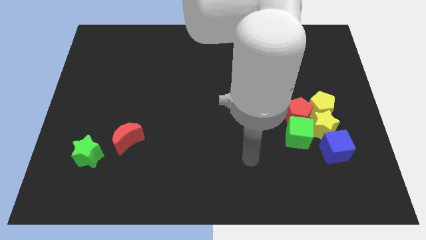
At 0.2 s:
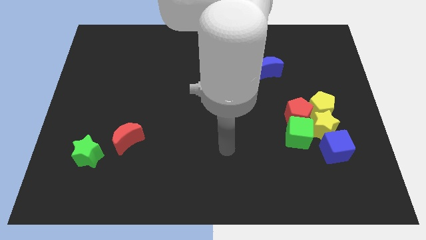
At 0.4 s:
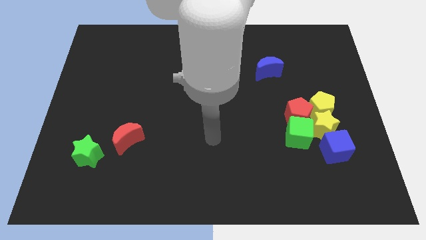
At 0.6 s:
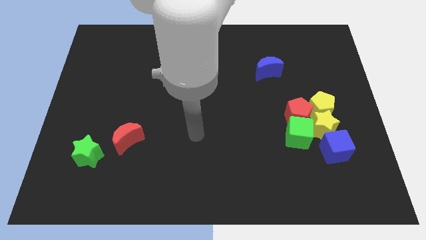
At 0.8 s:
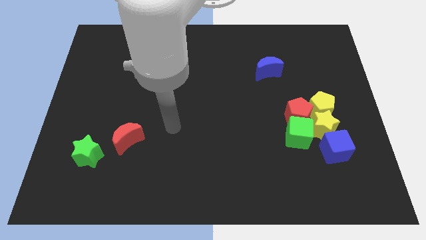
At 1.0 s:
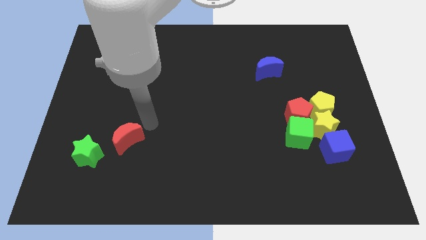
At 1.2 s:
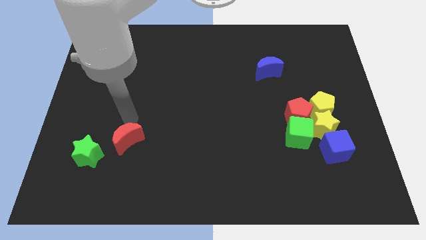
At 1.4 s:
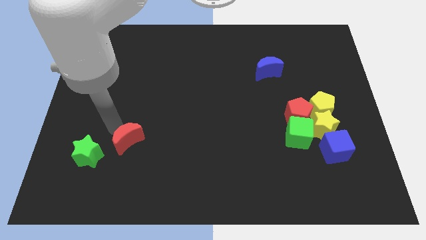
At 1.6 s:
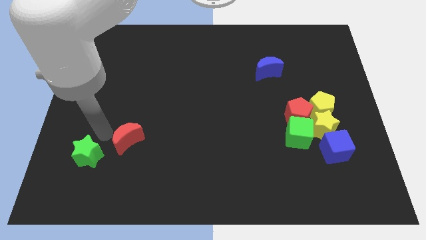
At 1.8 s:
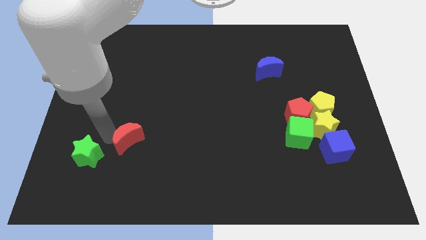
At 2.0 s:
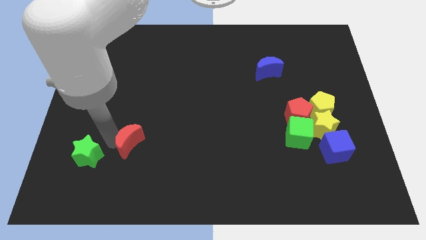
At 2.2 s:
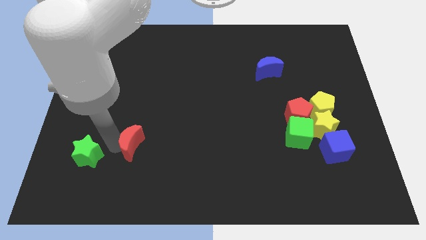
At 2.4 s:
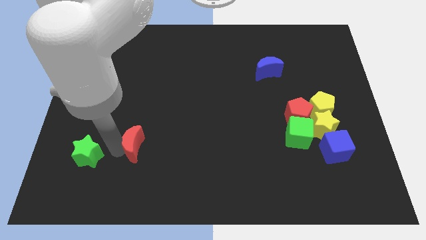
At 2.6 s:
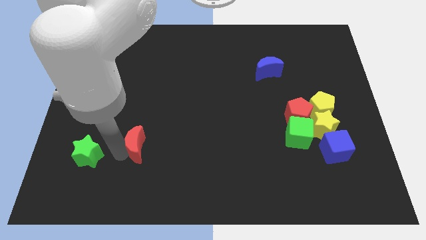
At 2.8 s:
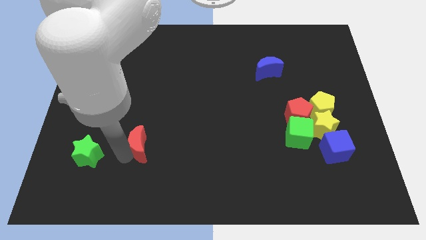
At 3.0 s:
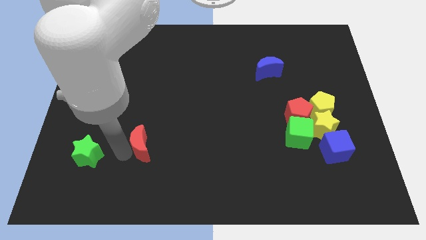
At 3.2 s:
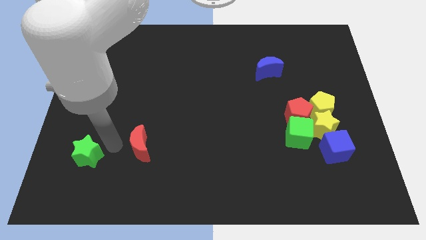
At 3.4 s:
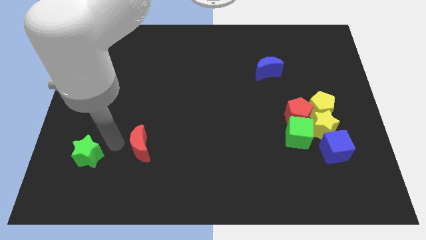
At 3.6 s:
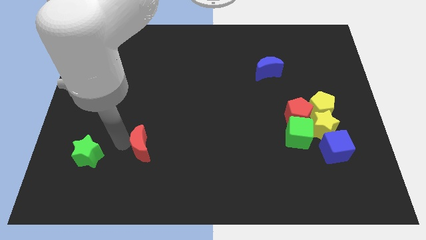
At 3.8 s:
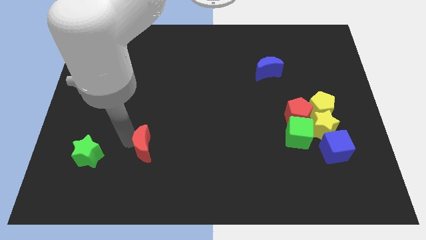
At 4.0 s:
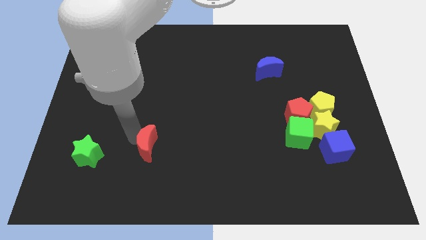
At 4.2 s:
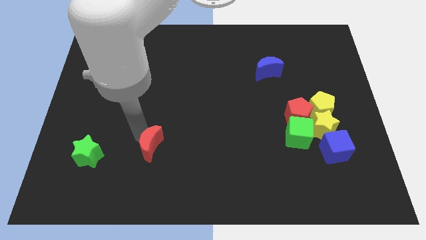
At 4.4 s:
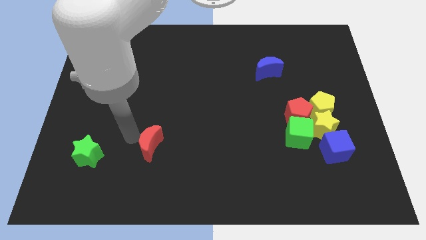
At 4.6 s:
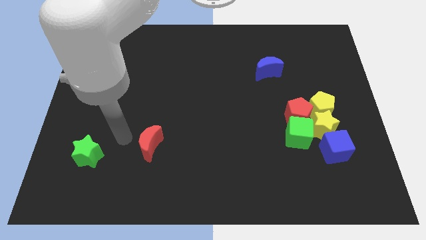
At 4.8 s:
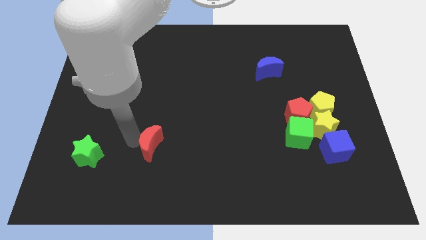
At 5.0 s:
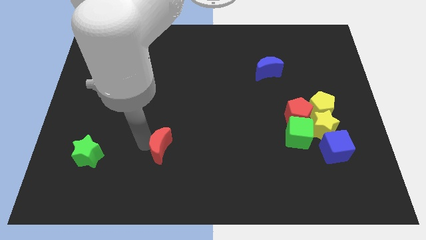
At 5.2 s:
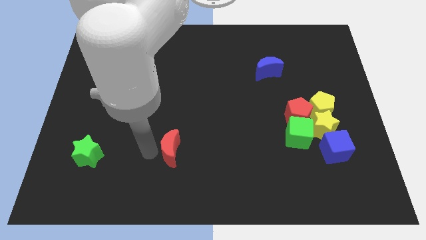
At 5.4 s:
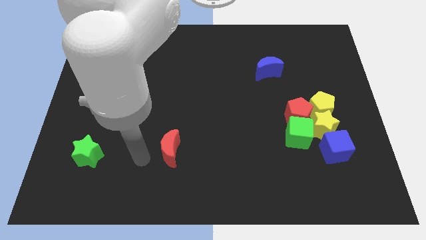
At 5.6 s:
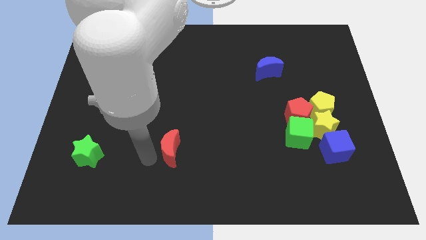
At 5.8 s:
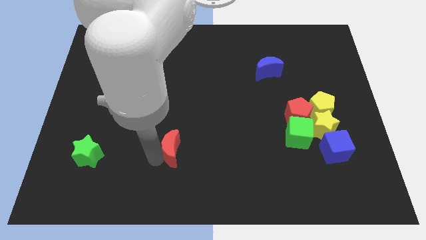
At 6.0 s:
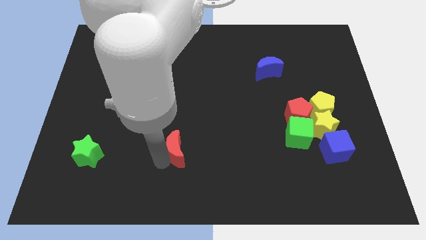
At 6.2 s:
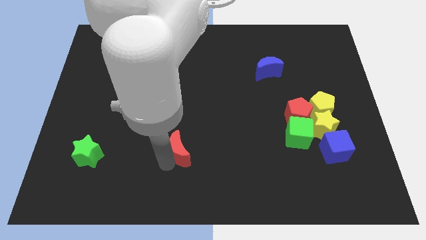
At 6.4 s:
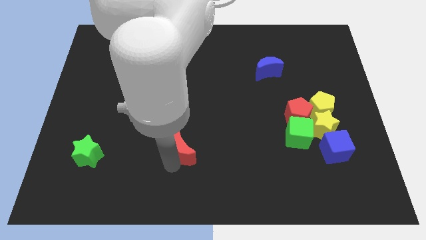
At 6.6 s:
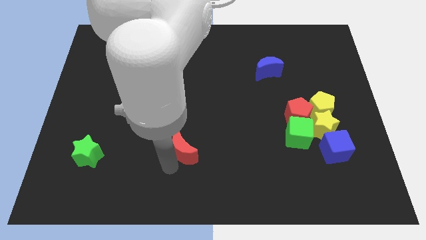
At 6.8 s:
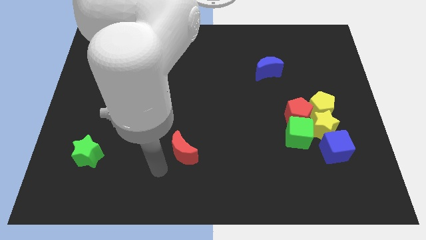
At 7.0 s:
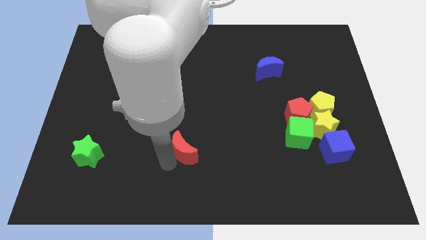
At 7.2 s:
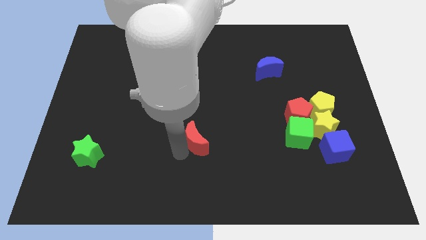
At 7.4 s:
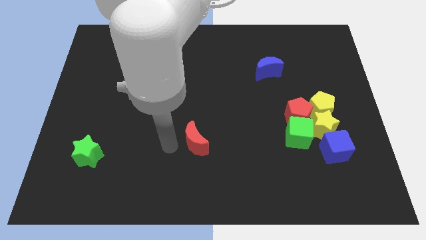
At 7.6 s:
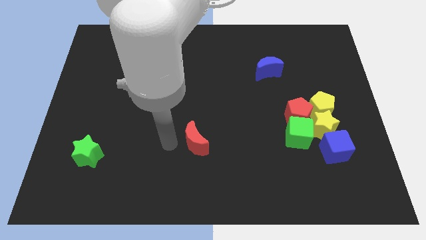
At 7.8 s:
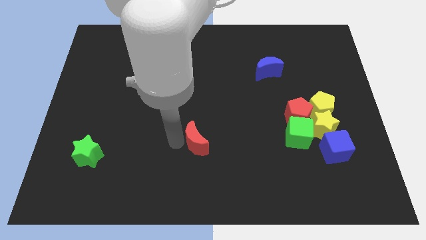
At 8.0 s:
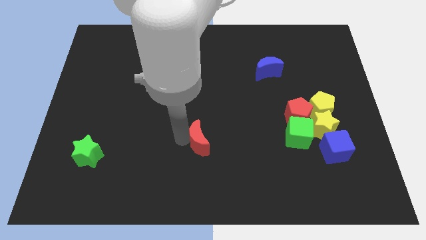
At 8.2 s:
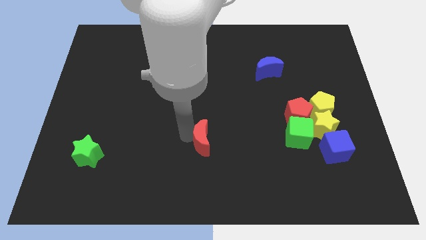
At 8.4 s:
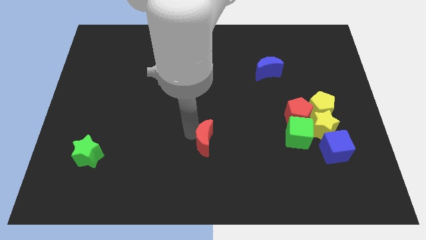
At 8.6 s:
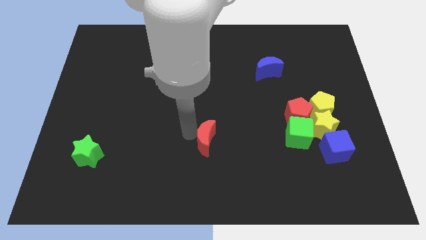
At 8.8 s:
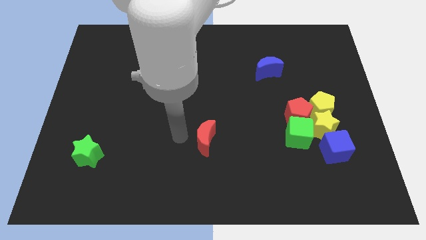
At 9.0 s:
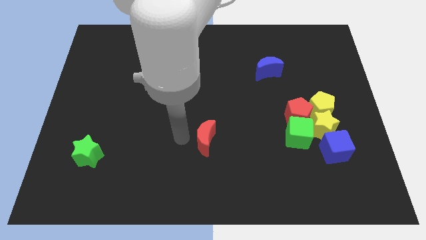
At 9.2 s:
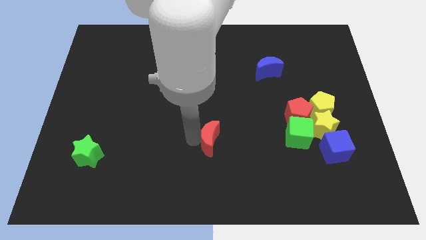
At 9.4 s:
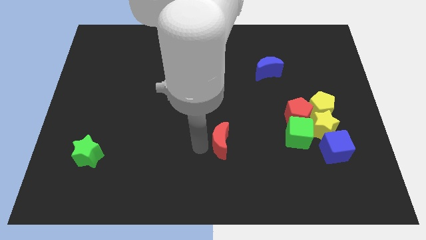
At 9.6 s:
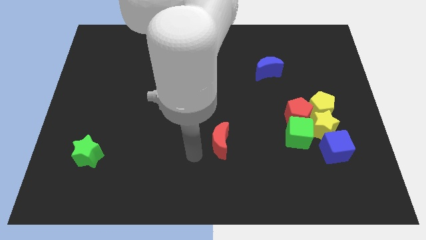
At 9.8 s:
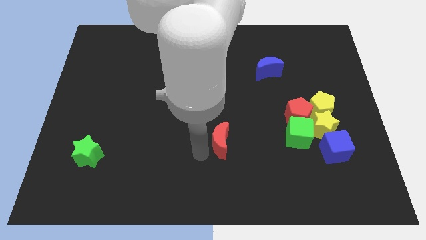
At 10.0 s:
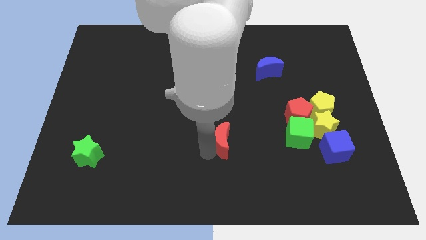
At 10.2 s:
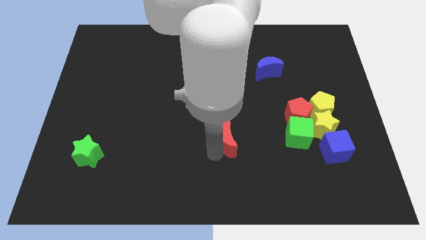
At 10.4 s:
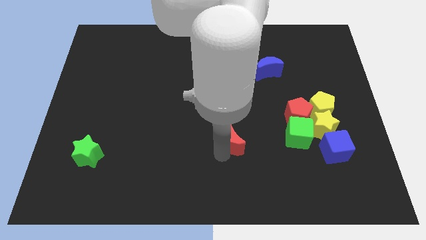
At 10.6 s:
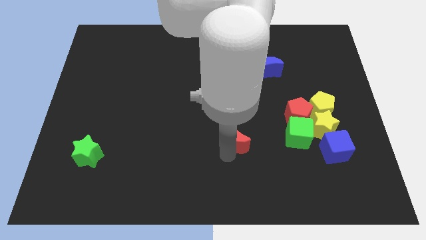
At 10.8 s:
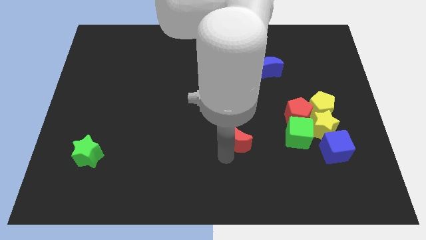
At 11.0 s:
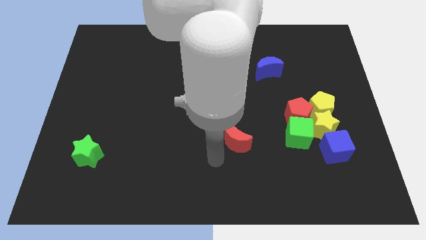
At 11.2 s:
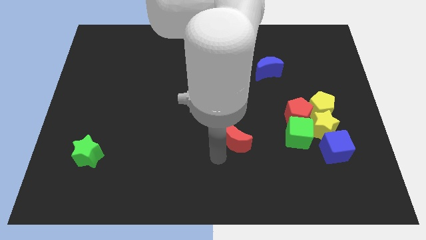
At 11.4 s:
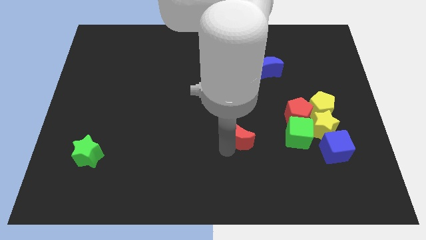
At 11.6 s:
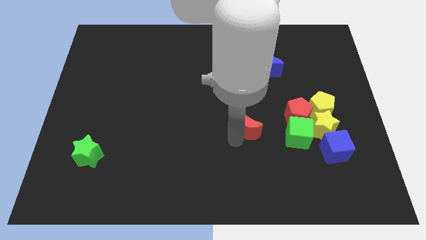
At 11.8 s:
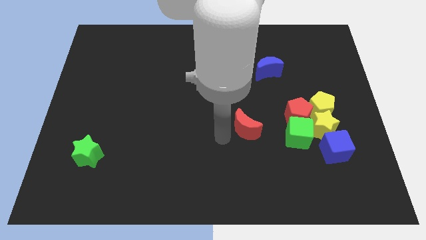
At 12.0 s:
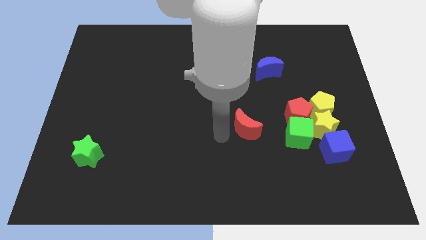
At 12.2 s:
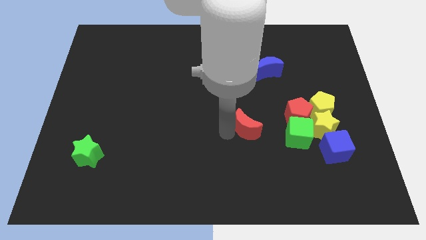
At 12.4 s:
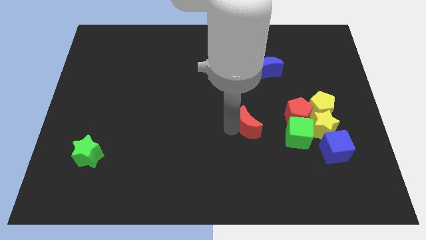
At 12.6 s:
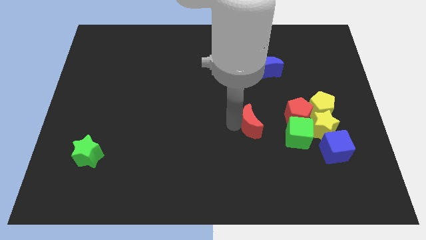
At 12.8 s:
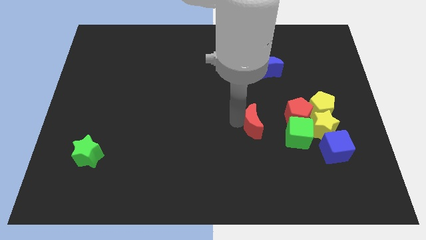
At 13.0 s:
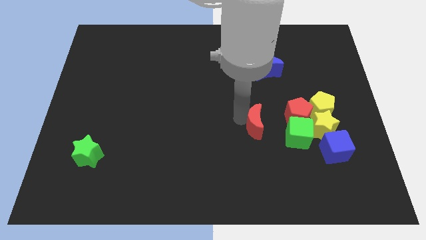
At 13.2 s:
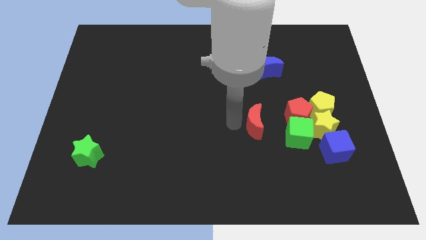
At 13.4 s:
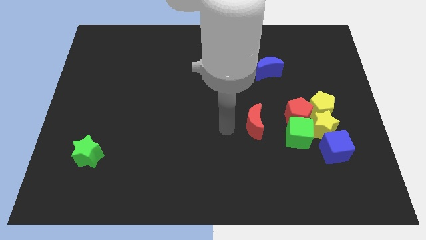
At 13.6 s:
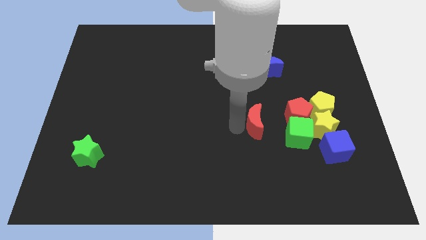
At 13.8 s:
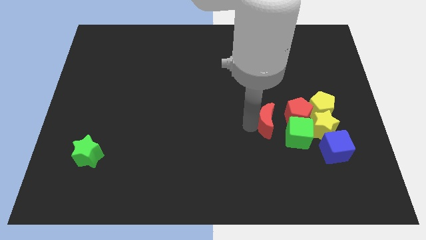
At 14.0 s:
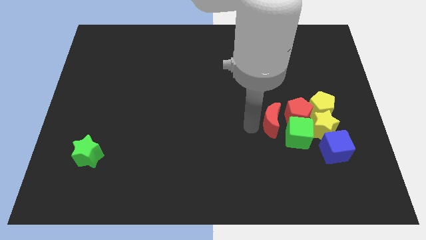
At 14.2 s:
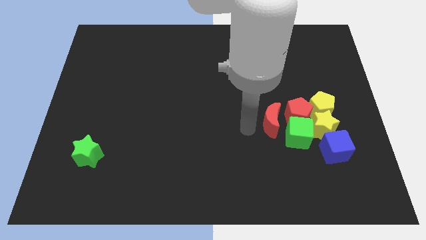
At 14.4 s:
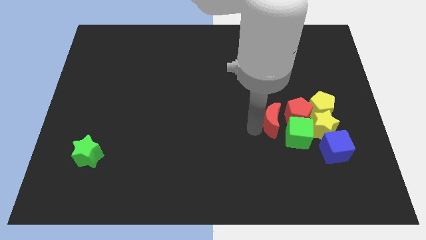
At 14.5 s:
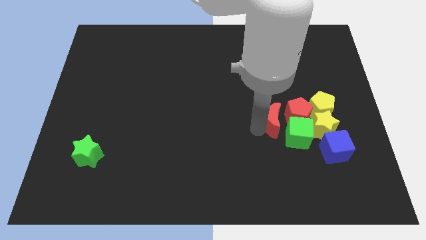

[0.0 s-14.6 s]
push the red moon to the red pentagon
